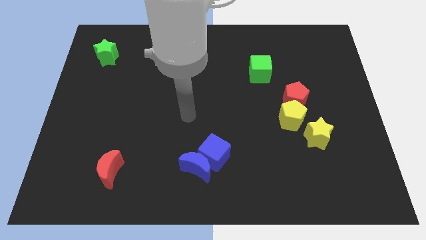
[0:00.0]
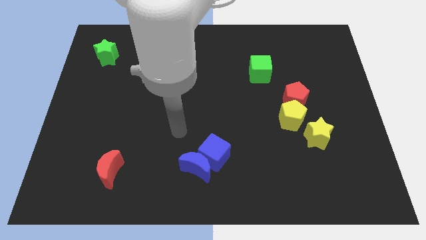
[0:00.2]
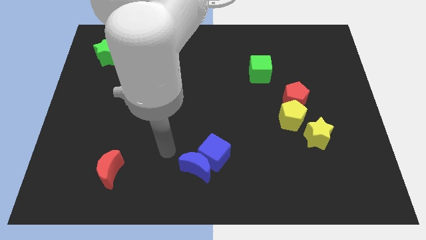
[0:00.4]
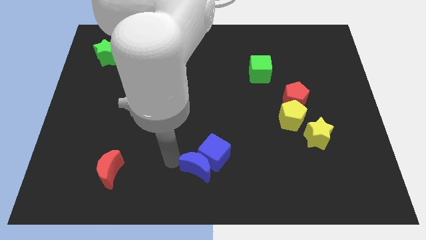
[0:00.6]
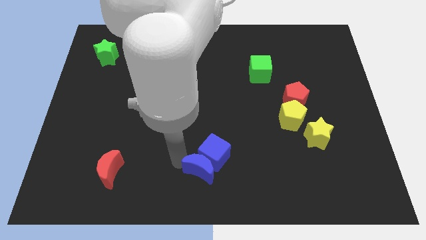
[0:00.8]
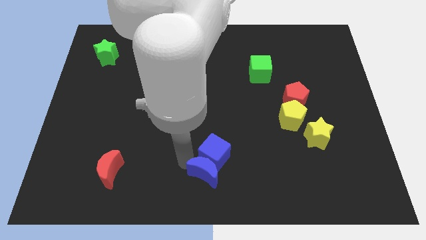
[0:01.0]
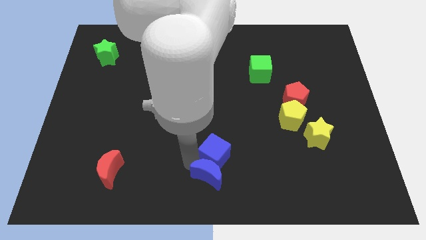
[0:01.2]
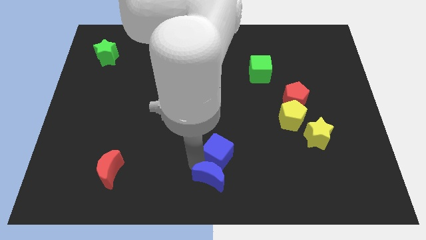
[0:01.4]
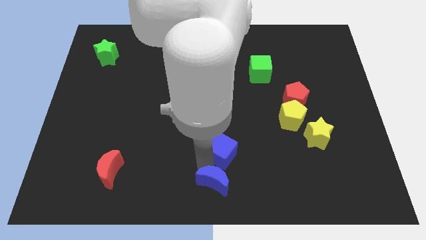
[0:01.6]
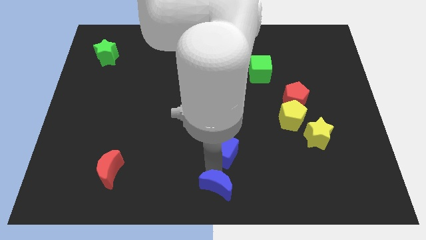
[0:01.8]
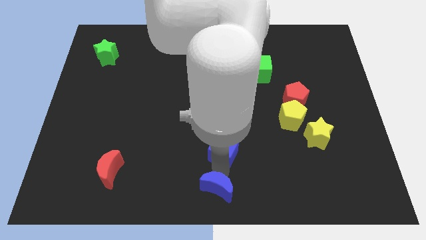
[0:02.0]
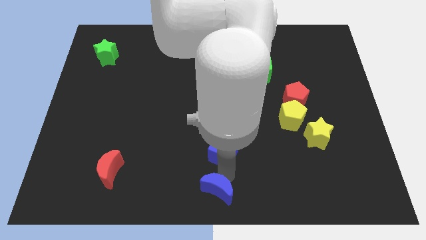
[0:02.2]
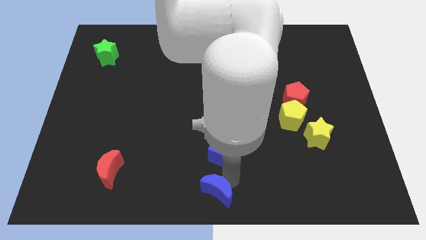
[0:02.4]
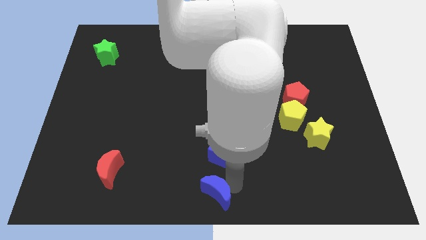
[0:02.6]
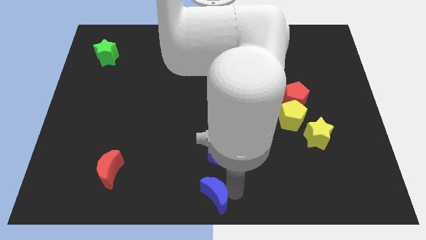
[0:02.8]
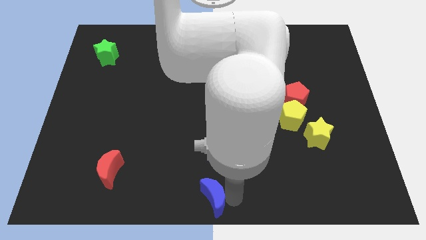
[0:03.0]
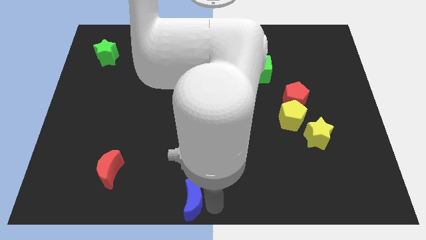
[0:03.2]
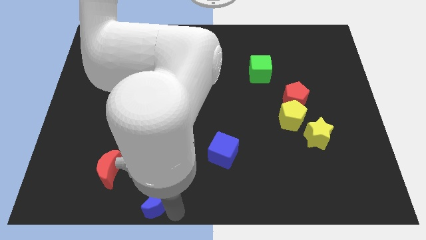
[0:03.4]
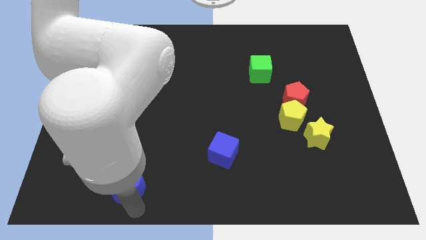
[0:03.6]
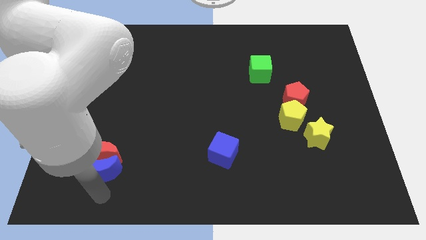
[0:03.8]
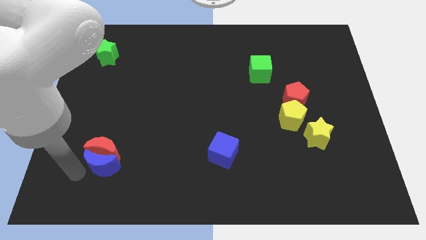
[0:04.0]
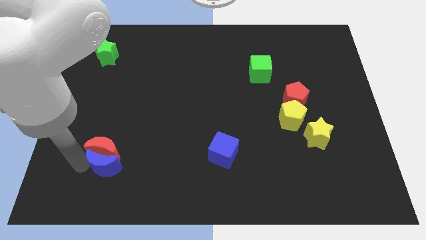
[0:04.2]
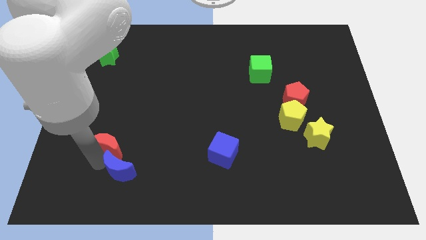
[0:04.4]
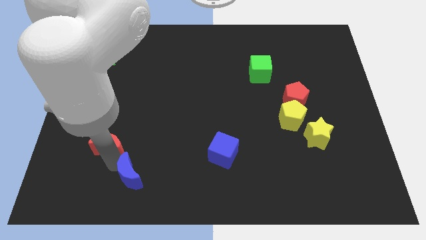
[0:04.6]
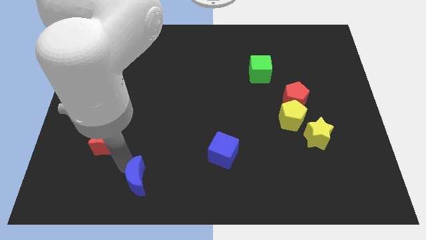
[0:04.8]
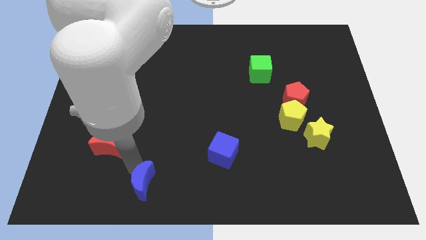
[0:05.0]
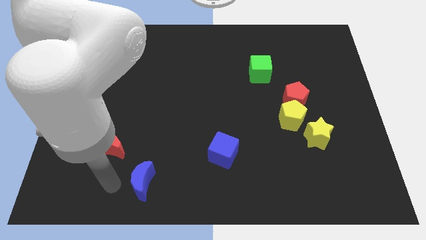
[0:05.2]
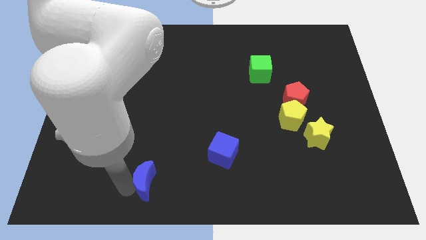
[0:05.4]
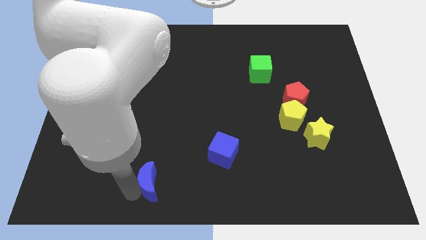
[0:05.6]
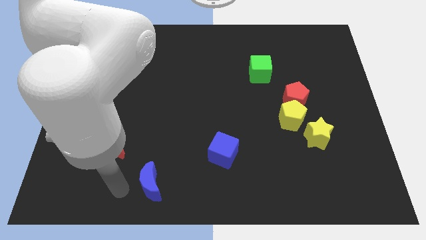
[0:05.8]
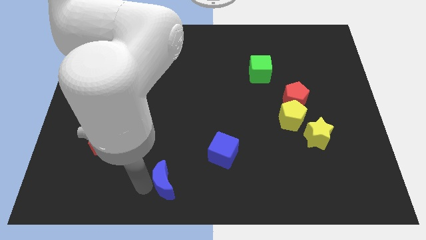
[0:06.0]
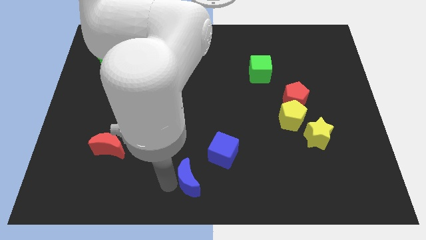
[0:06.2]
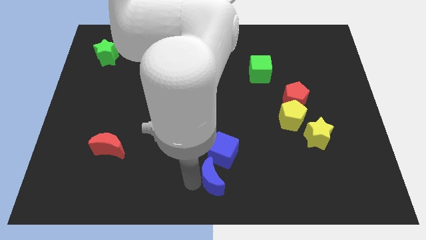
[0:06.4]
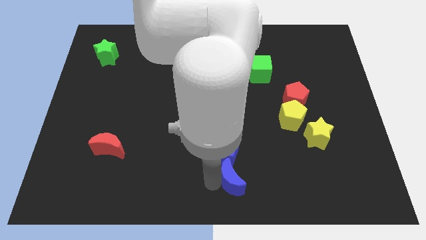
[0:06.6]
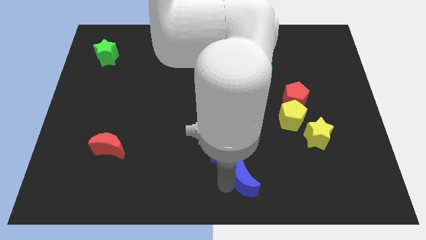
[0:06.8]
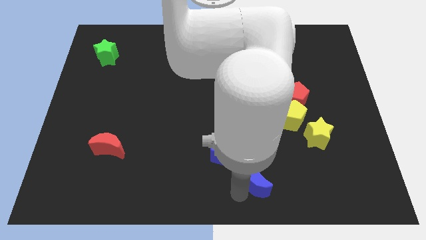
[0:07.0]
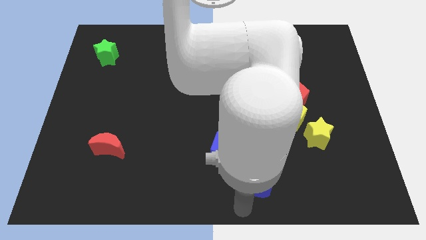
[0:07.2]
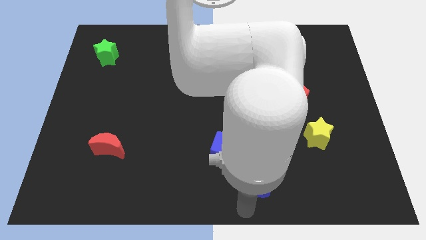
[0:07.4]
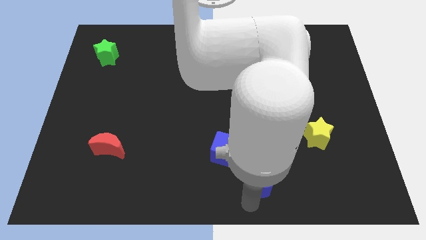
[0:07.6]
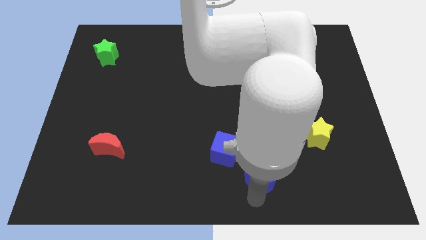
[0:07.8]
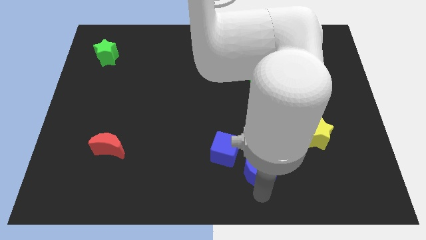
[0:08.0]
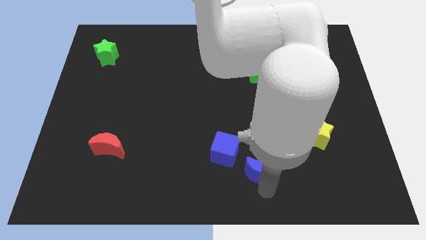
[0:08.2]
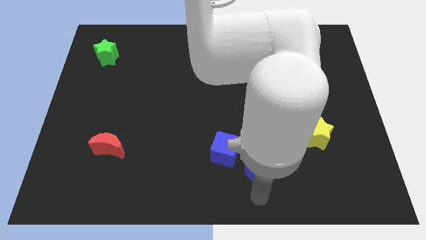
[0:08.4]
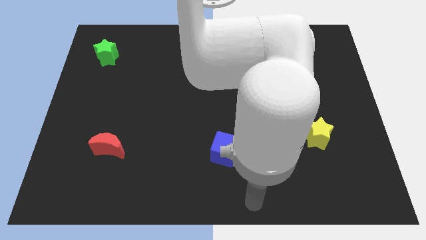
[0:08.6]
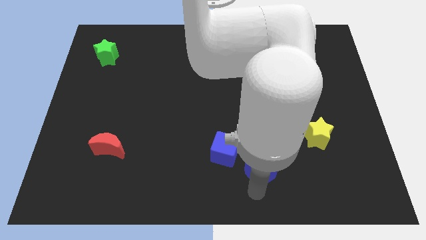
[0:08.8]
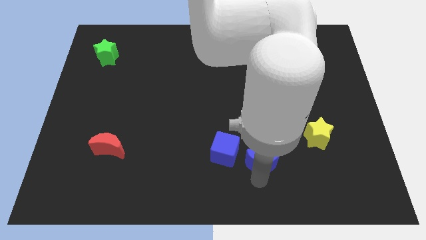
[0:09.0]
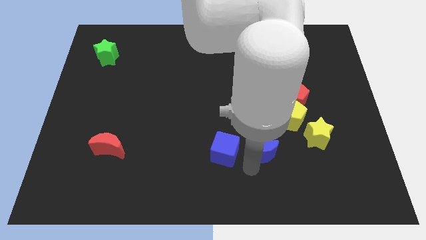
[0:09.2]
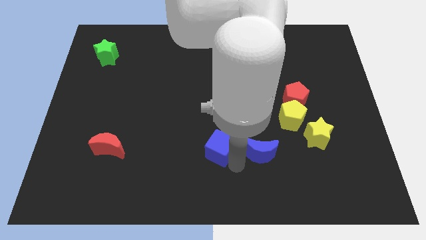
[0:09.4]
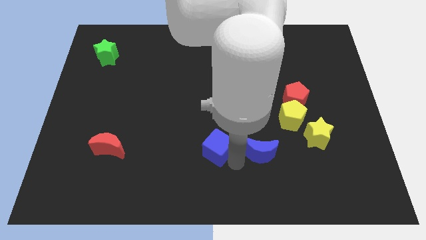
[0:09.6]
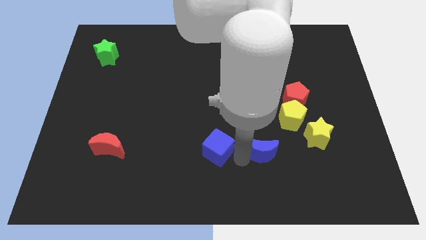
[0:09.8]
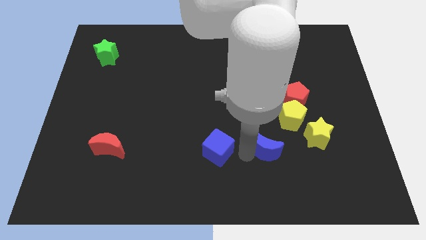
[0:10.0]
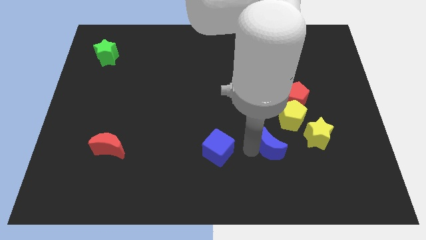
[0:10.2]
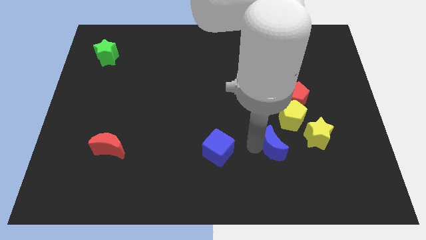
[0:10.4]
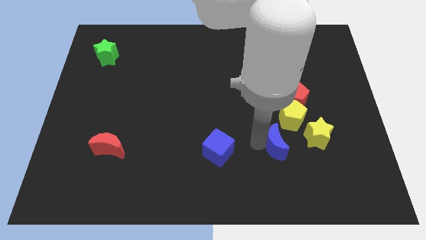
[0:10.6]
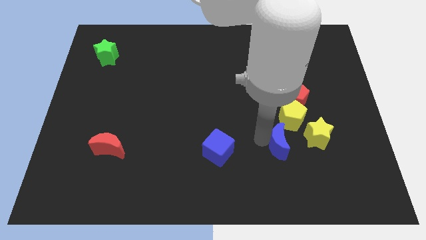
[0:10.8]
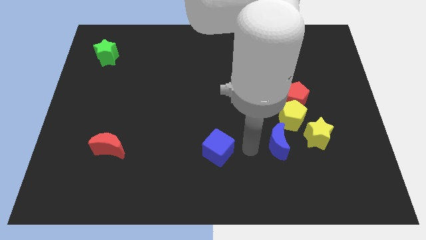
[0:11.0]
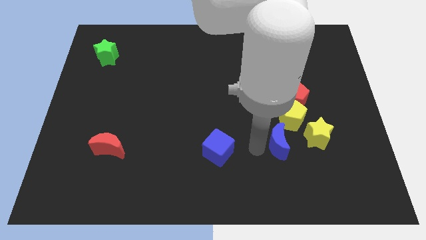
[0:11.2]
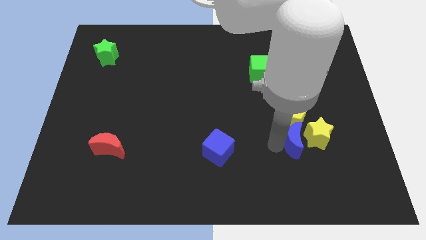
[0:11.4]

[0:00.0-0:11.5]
move the blue moon close to the yellow star

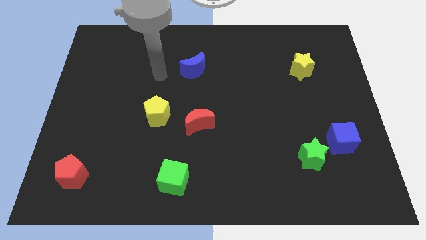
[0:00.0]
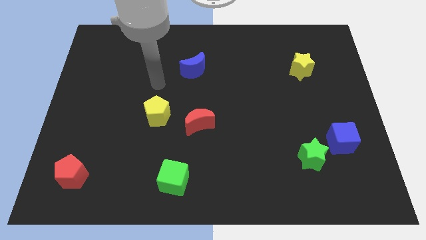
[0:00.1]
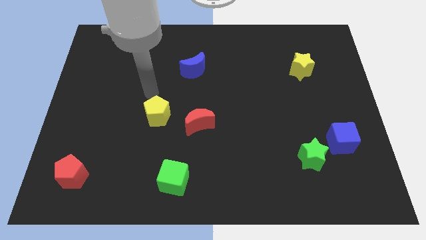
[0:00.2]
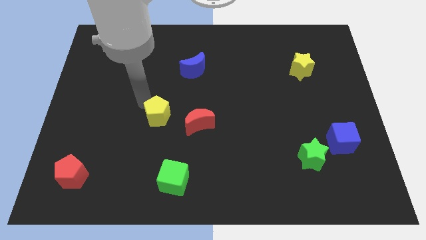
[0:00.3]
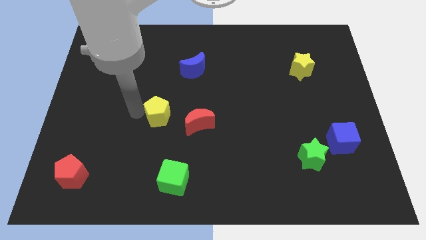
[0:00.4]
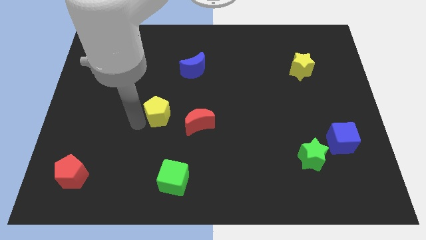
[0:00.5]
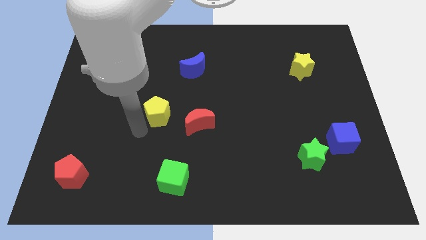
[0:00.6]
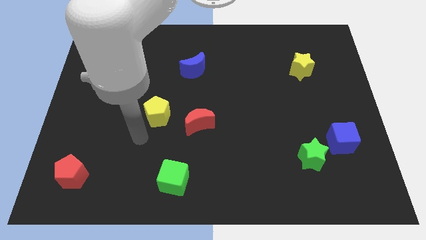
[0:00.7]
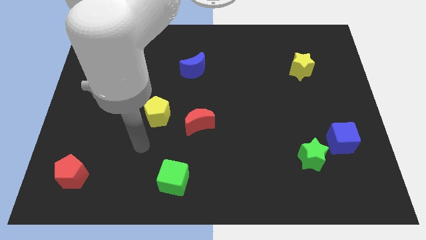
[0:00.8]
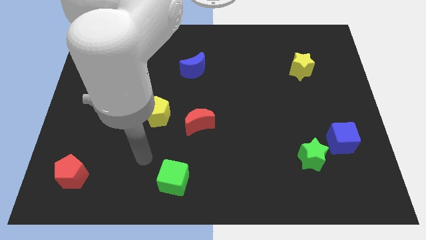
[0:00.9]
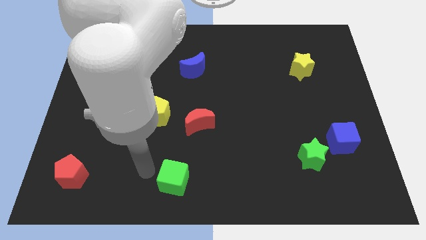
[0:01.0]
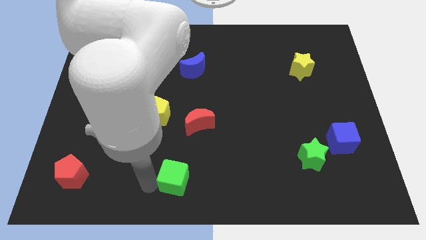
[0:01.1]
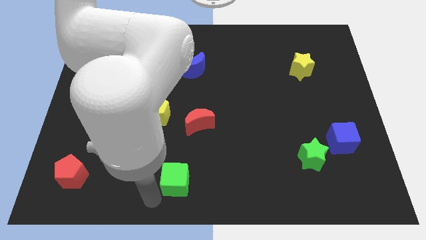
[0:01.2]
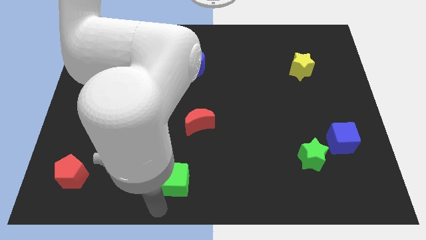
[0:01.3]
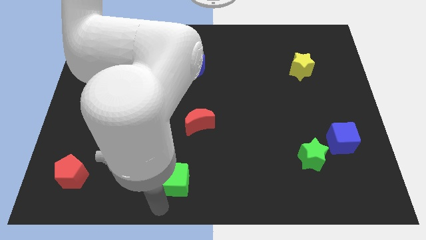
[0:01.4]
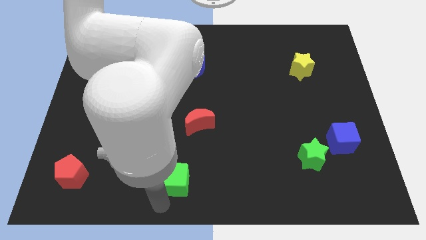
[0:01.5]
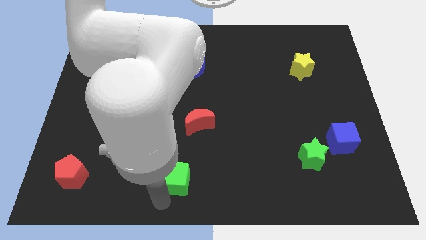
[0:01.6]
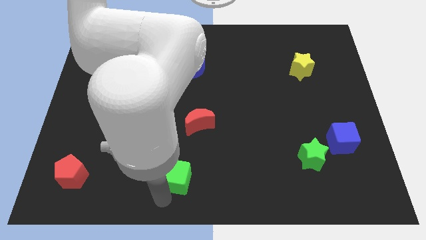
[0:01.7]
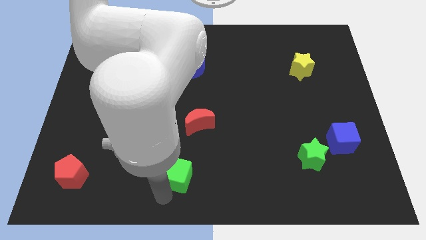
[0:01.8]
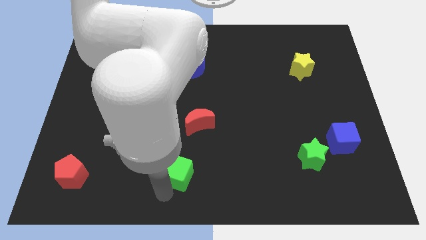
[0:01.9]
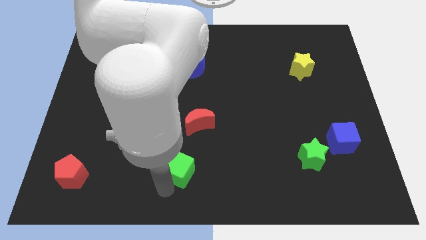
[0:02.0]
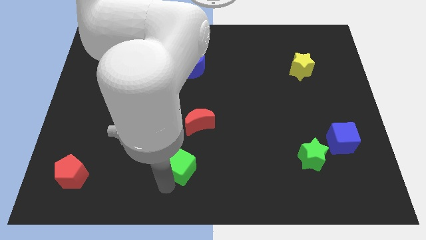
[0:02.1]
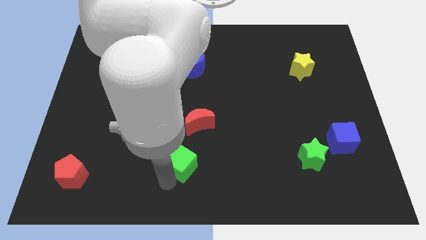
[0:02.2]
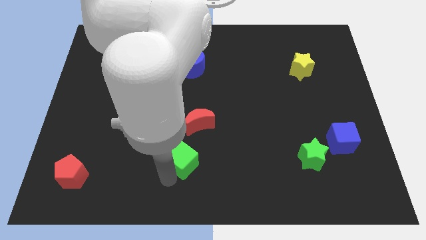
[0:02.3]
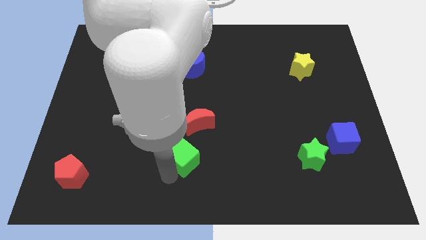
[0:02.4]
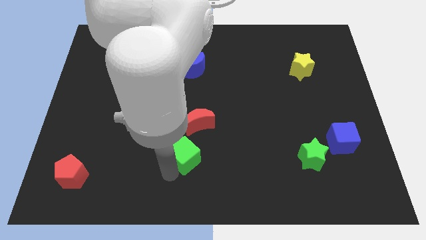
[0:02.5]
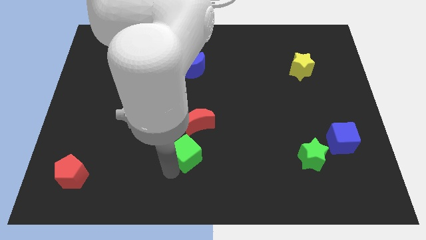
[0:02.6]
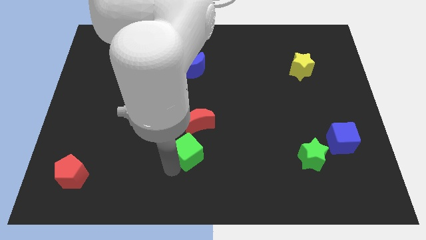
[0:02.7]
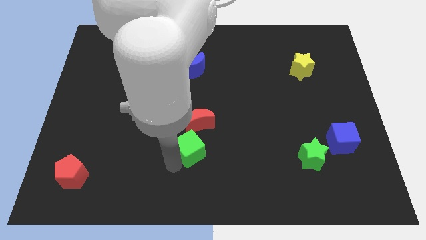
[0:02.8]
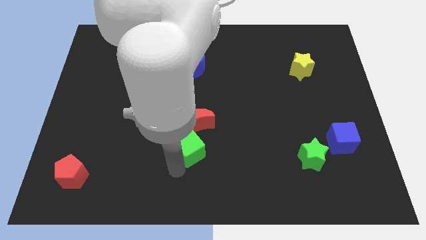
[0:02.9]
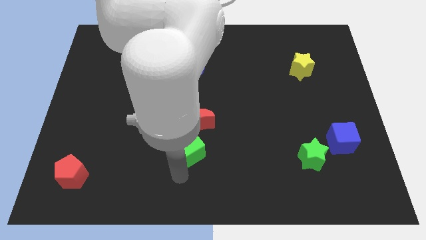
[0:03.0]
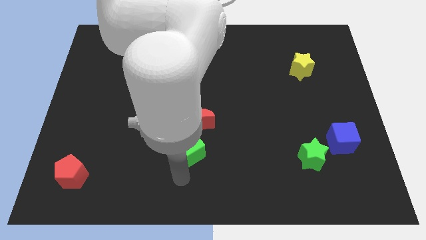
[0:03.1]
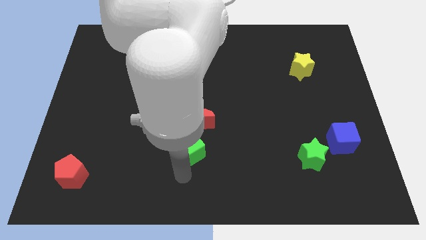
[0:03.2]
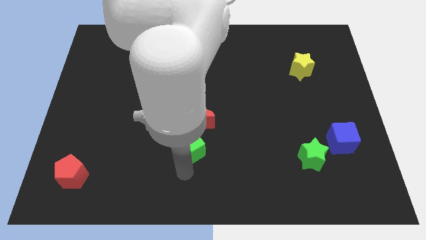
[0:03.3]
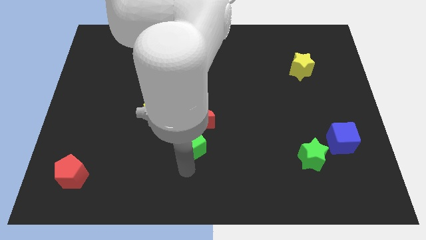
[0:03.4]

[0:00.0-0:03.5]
put the green cube to the red moon
